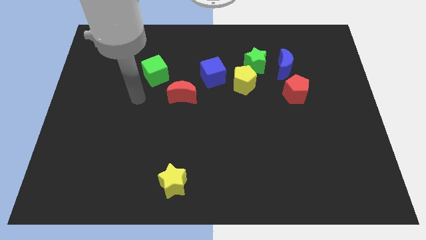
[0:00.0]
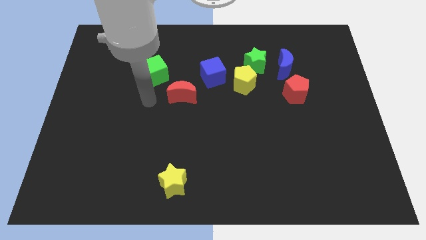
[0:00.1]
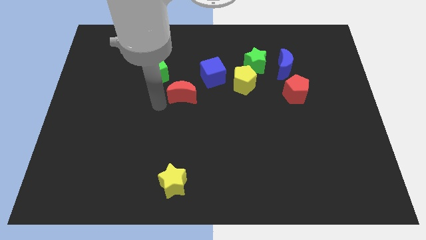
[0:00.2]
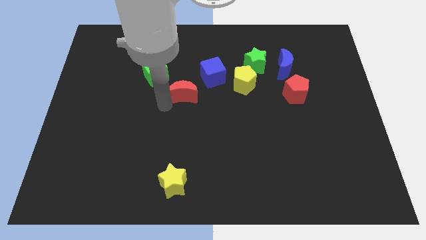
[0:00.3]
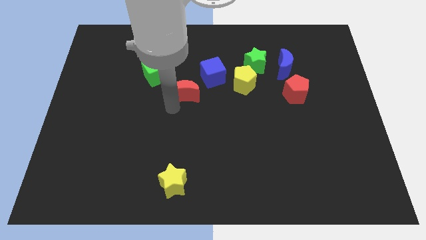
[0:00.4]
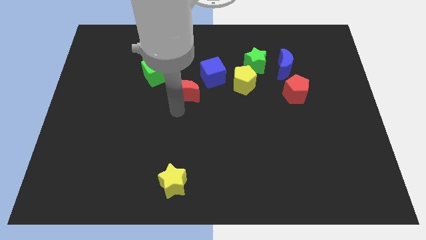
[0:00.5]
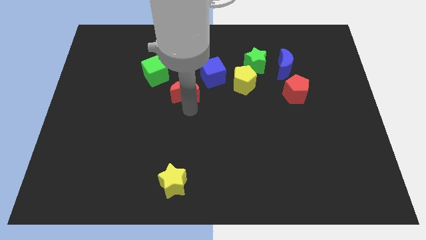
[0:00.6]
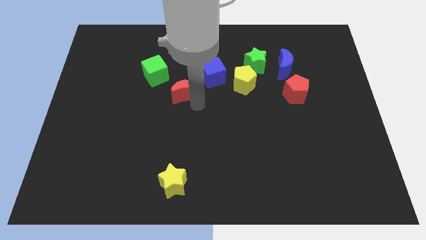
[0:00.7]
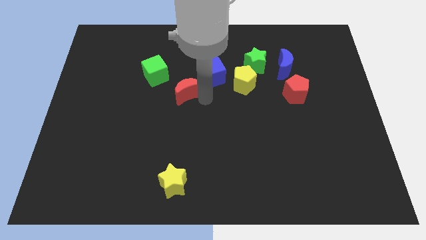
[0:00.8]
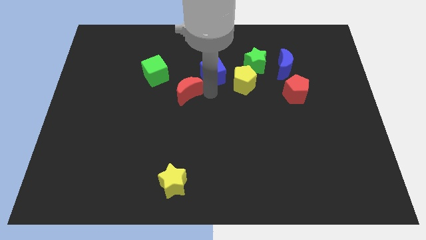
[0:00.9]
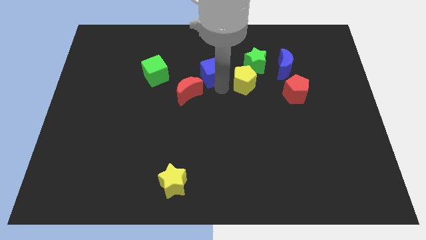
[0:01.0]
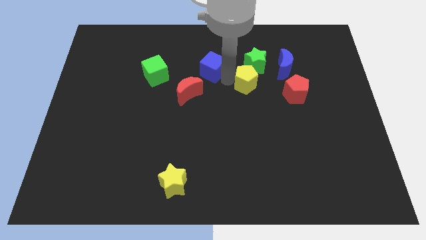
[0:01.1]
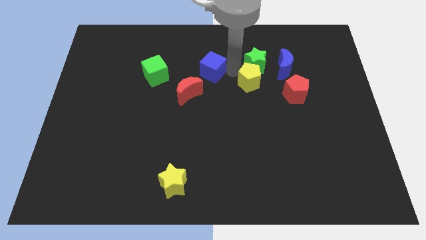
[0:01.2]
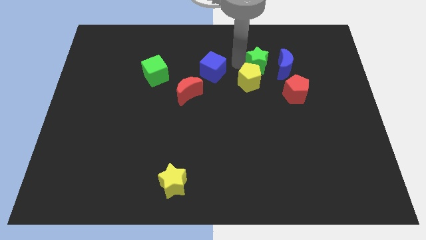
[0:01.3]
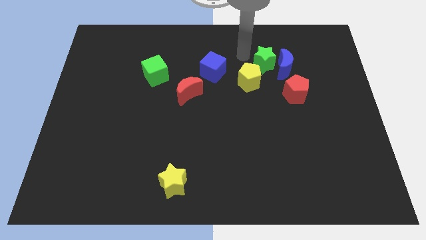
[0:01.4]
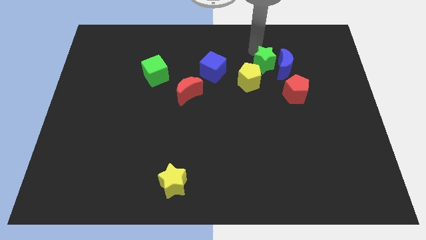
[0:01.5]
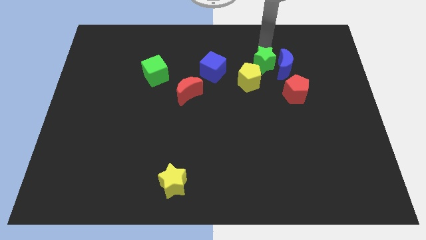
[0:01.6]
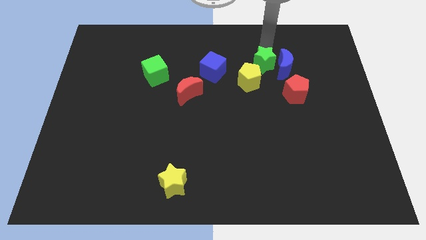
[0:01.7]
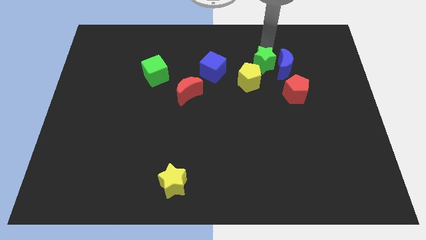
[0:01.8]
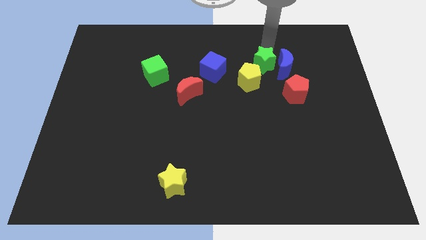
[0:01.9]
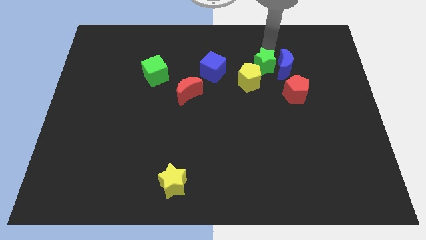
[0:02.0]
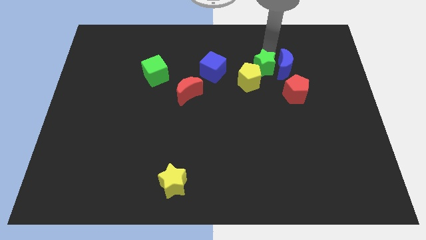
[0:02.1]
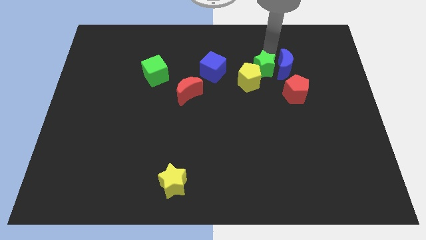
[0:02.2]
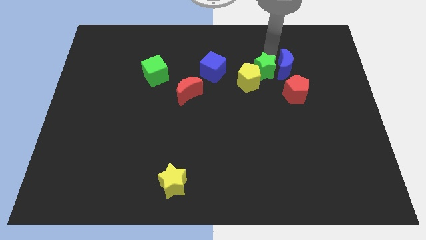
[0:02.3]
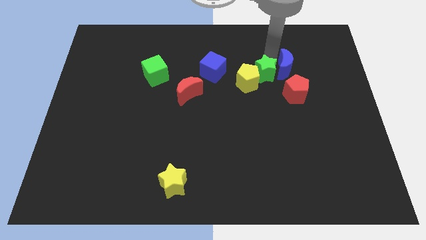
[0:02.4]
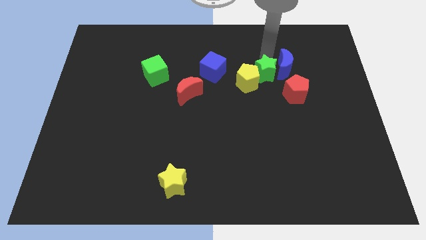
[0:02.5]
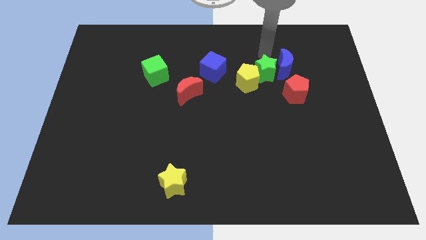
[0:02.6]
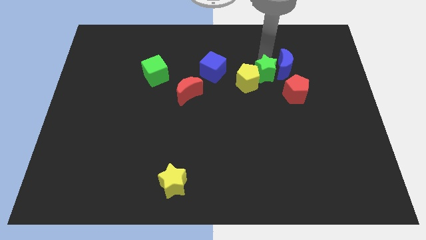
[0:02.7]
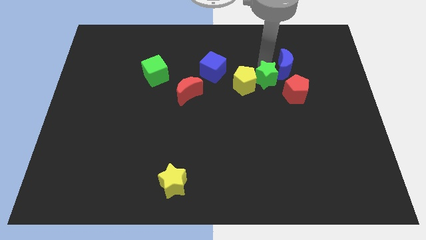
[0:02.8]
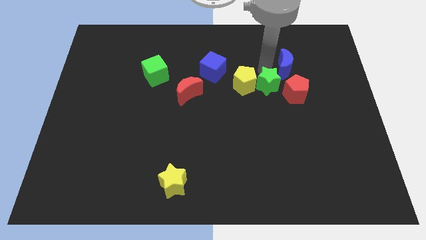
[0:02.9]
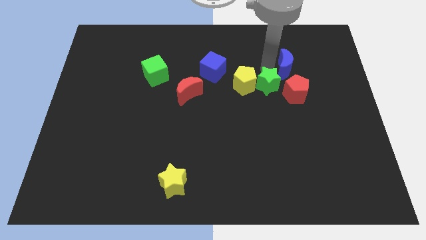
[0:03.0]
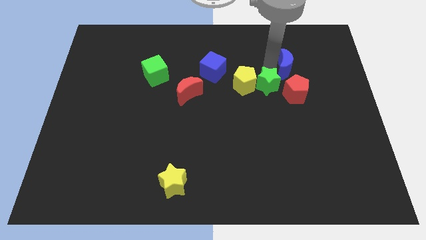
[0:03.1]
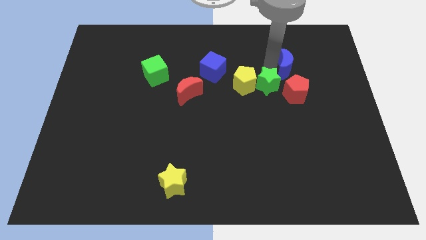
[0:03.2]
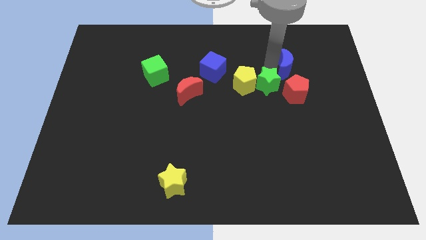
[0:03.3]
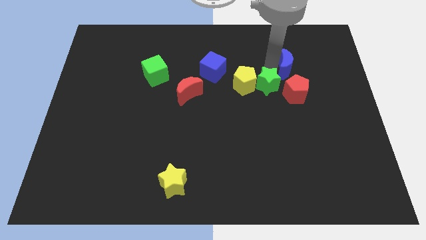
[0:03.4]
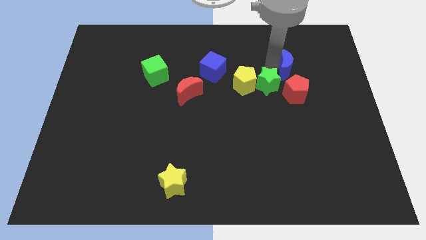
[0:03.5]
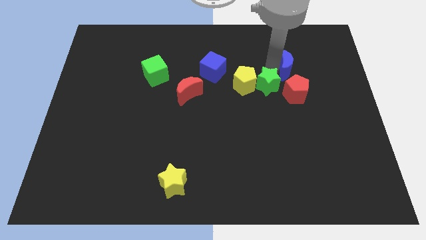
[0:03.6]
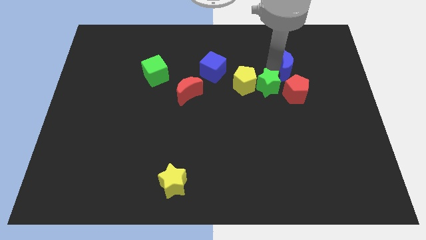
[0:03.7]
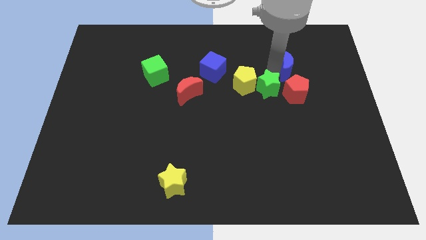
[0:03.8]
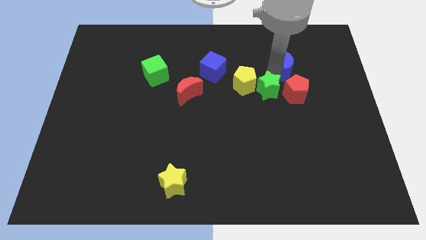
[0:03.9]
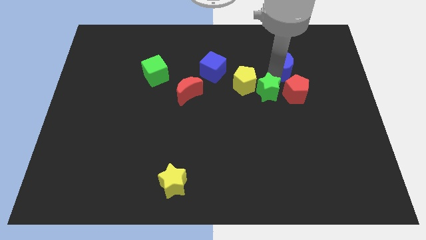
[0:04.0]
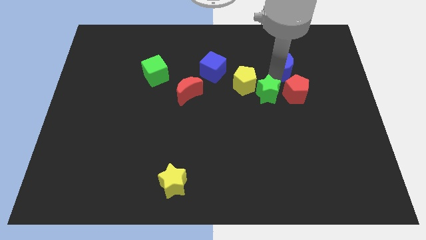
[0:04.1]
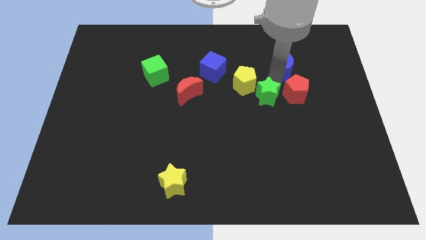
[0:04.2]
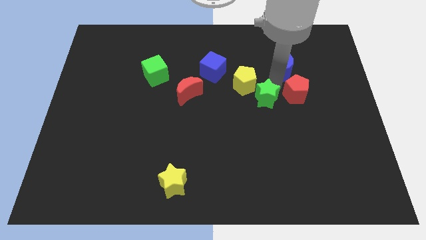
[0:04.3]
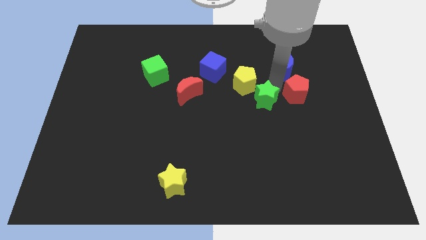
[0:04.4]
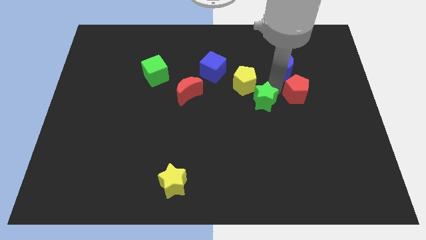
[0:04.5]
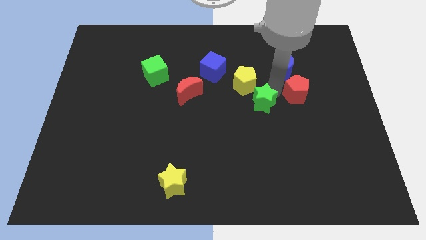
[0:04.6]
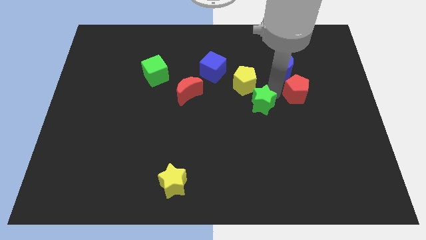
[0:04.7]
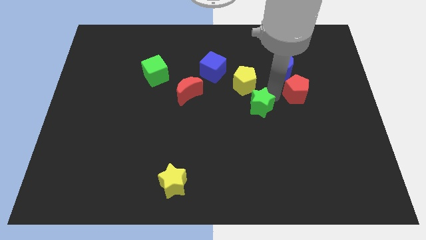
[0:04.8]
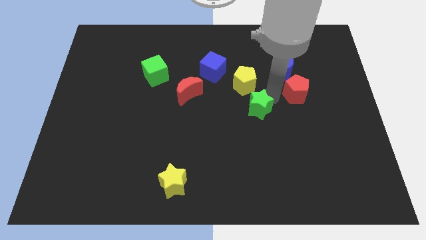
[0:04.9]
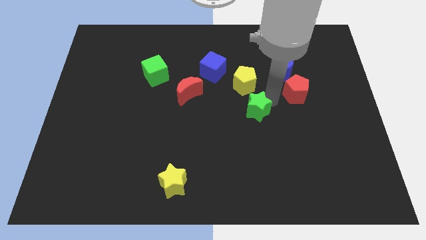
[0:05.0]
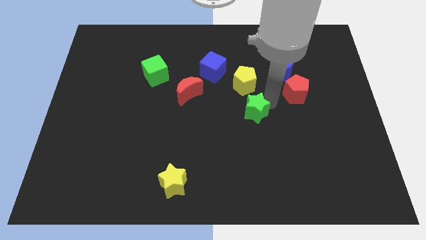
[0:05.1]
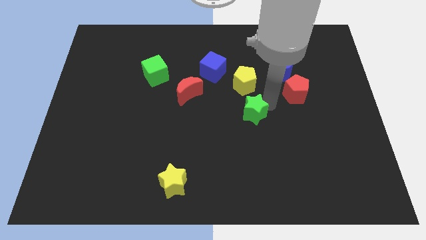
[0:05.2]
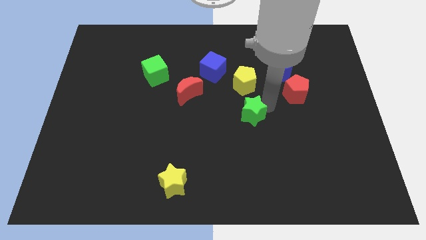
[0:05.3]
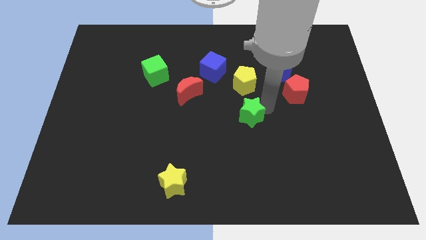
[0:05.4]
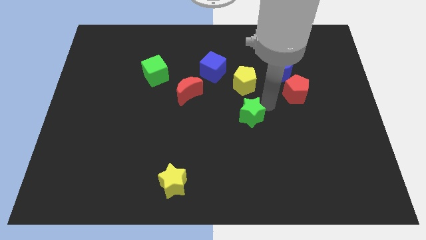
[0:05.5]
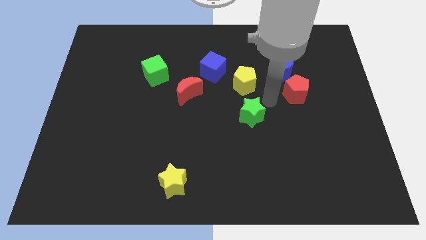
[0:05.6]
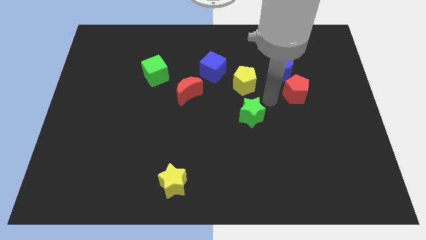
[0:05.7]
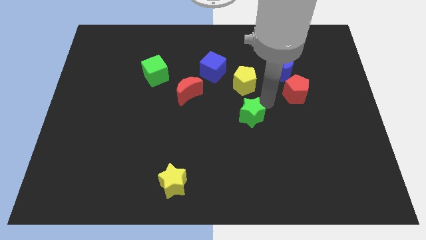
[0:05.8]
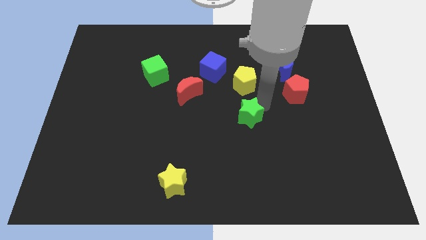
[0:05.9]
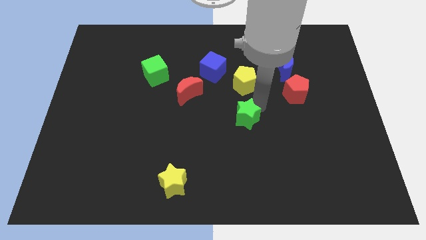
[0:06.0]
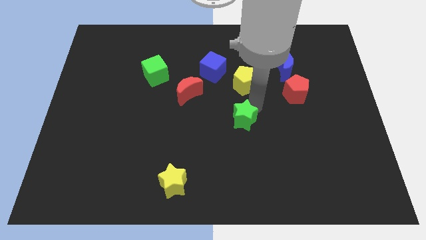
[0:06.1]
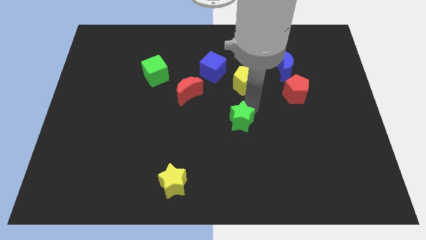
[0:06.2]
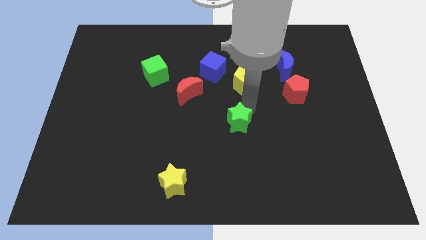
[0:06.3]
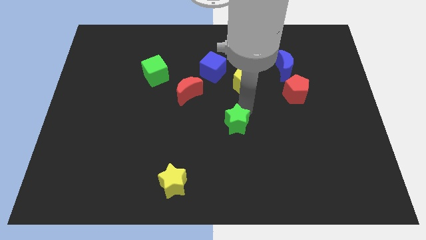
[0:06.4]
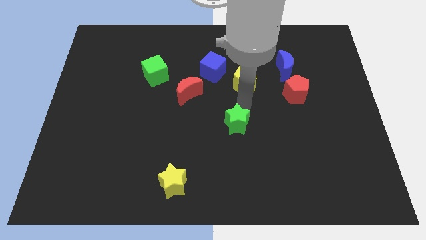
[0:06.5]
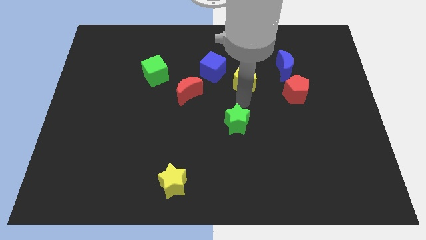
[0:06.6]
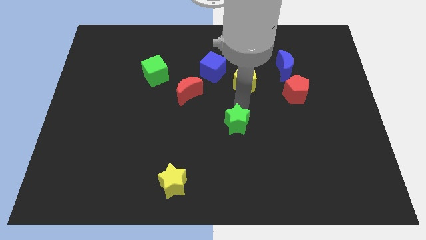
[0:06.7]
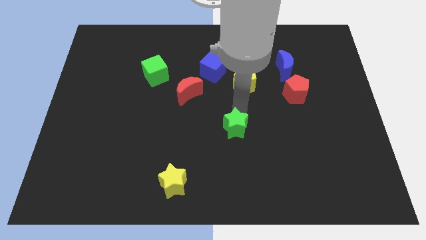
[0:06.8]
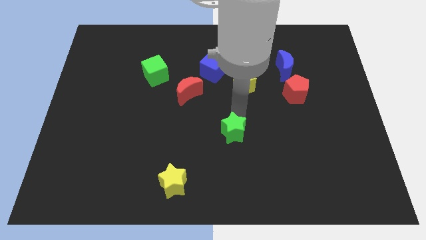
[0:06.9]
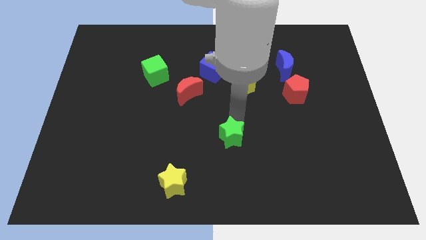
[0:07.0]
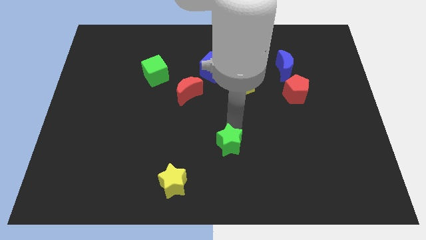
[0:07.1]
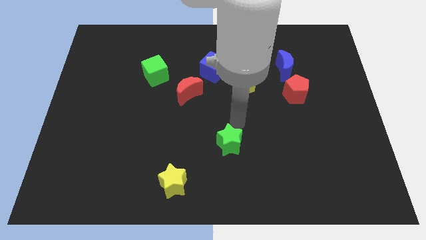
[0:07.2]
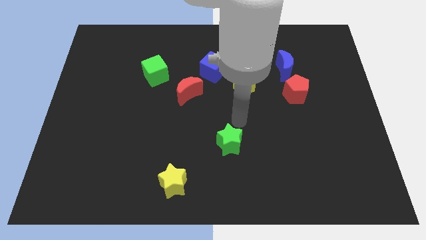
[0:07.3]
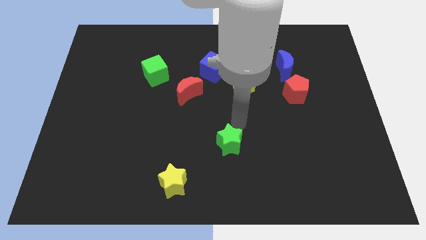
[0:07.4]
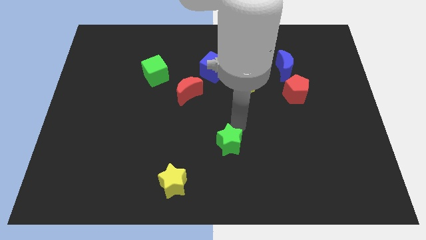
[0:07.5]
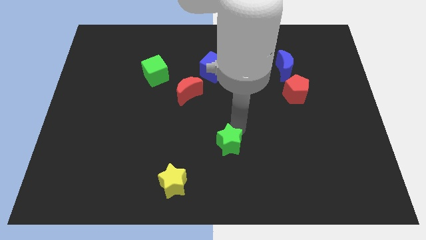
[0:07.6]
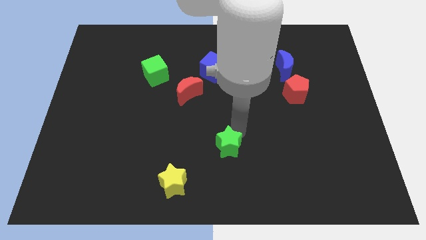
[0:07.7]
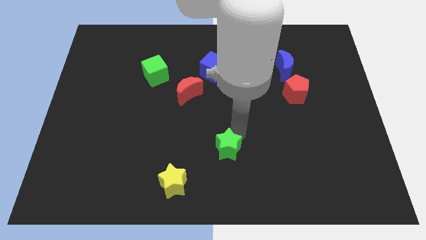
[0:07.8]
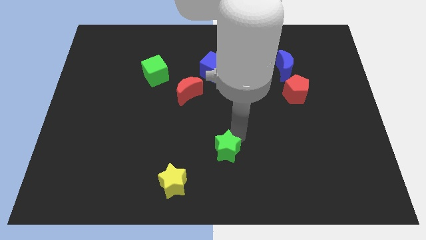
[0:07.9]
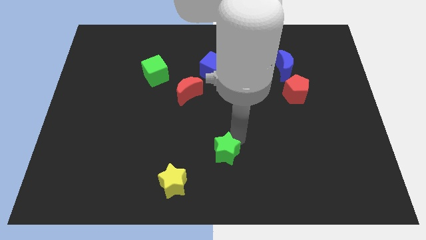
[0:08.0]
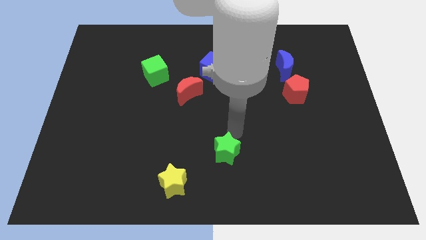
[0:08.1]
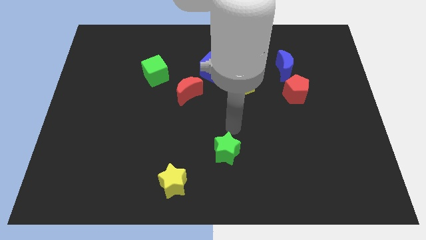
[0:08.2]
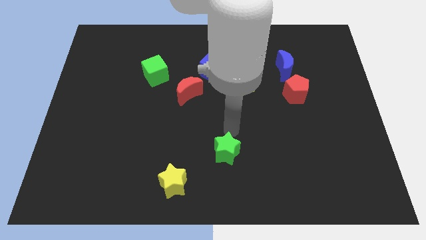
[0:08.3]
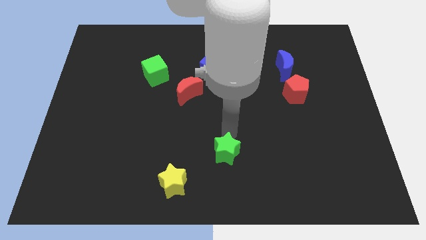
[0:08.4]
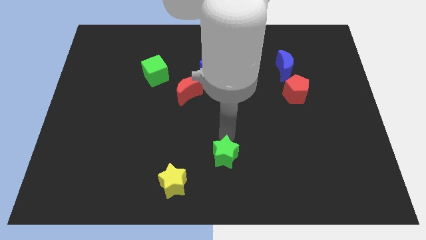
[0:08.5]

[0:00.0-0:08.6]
slide the green star to the bottom side
